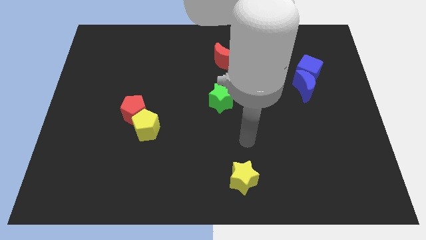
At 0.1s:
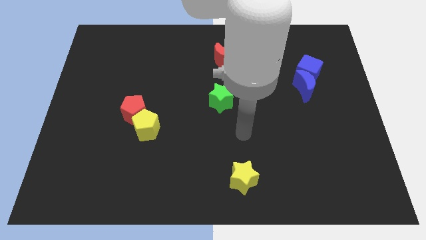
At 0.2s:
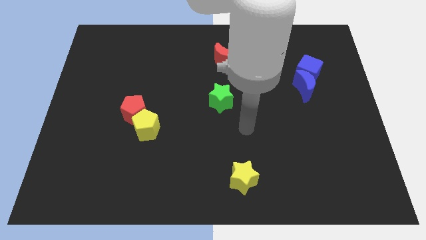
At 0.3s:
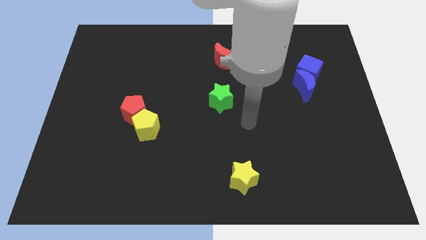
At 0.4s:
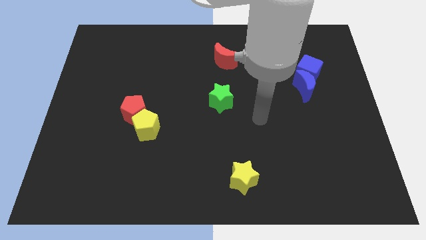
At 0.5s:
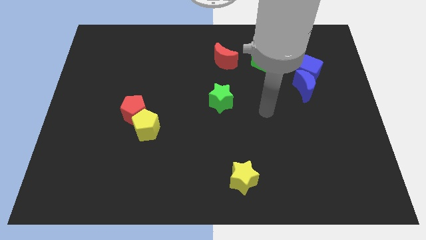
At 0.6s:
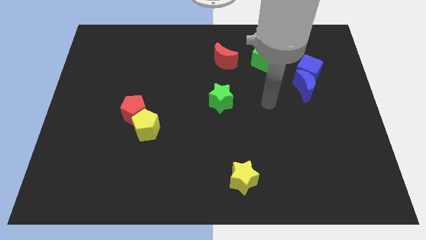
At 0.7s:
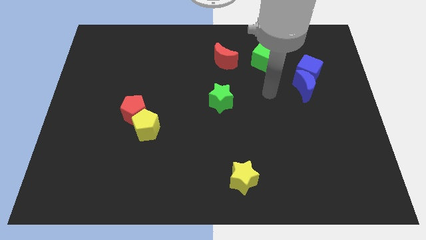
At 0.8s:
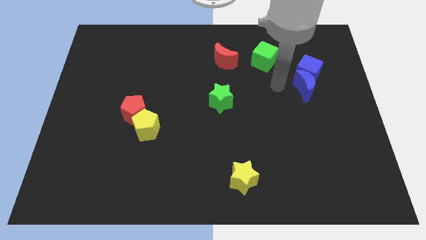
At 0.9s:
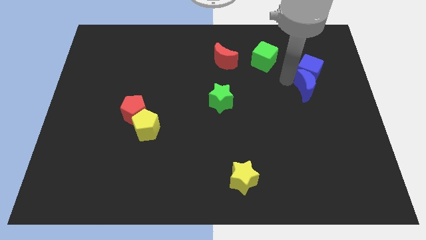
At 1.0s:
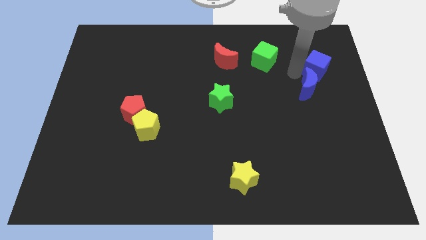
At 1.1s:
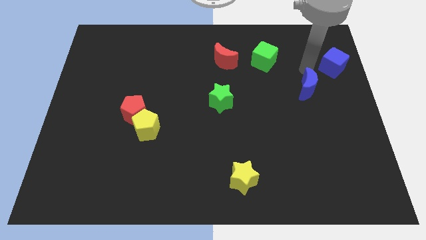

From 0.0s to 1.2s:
move the blue moon away from the blue cube

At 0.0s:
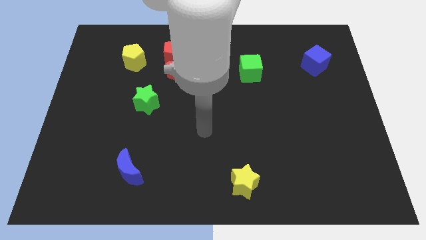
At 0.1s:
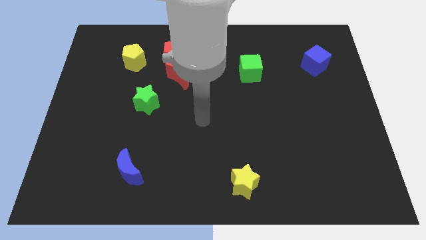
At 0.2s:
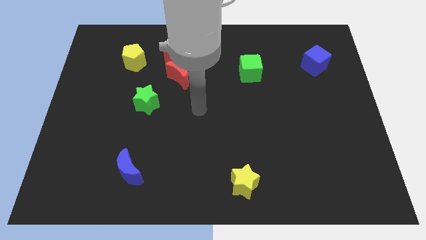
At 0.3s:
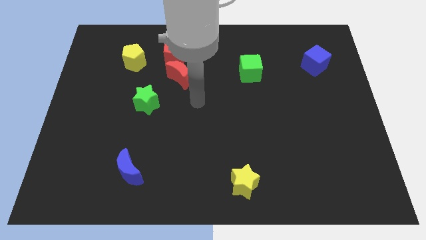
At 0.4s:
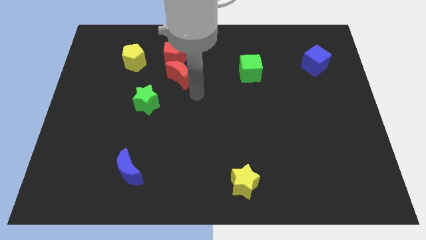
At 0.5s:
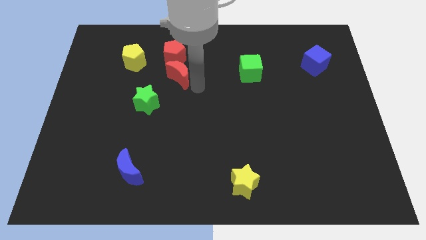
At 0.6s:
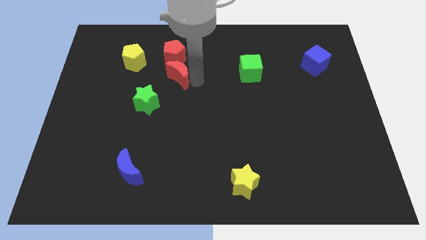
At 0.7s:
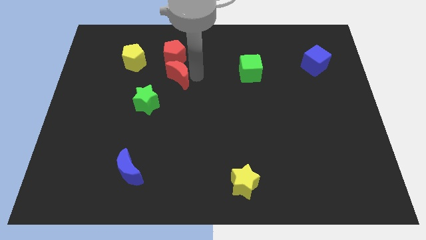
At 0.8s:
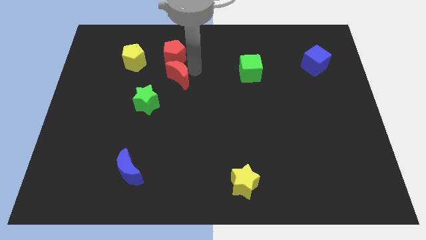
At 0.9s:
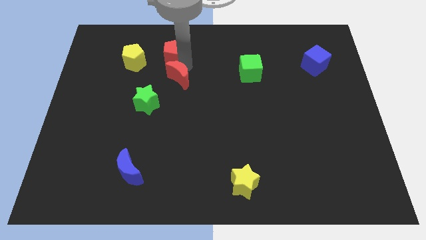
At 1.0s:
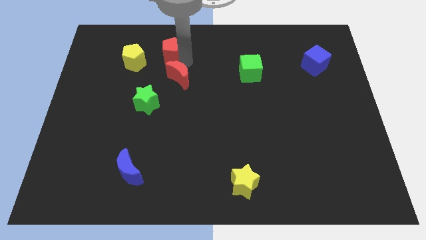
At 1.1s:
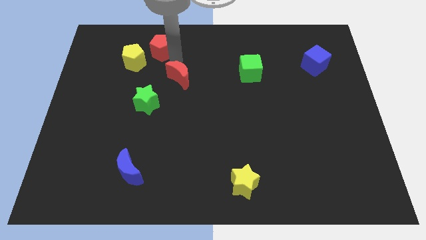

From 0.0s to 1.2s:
separate the red moon from the red pentagon

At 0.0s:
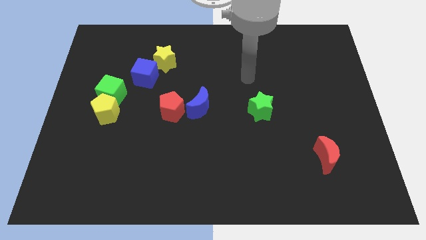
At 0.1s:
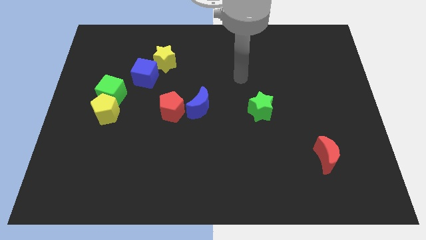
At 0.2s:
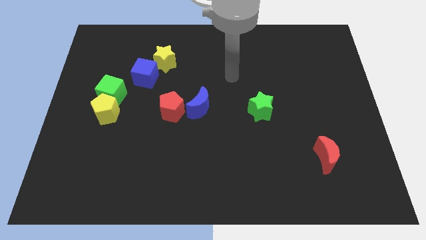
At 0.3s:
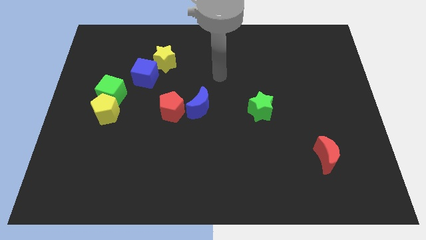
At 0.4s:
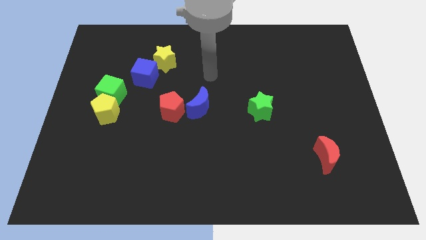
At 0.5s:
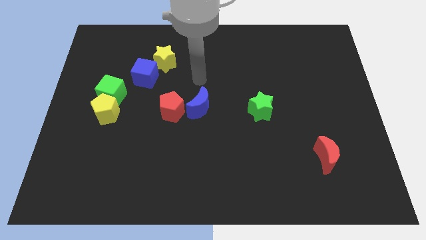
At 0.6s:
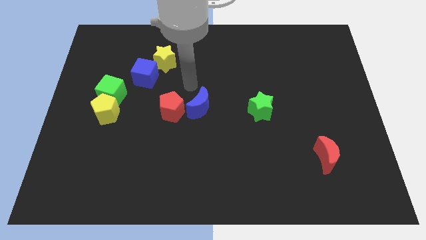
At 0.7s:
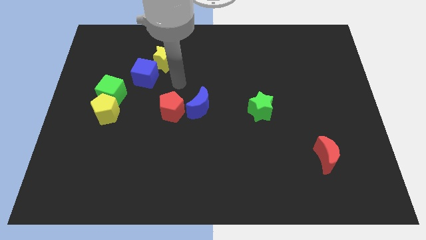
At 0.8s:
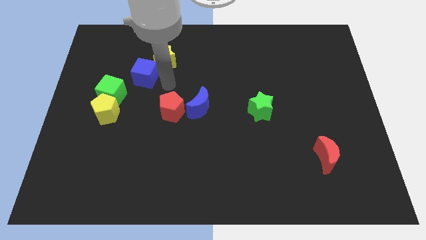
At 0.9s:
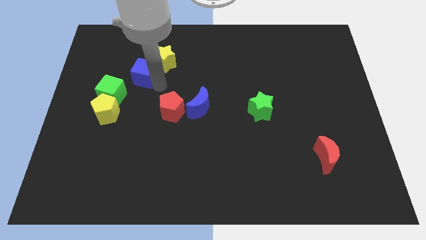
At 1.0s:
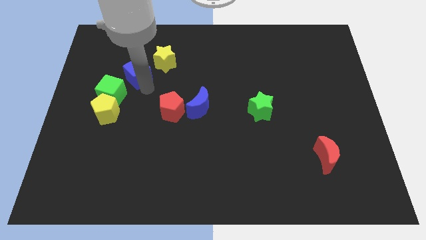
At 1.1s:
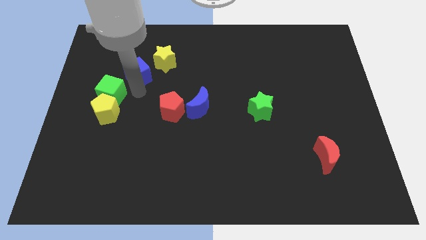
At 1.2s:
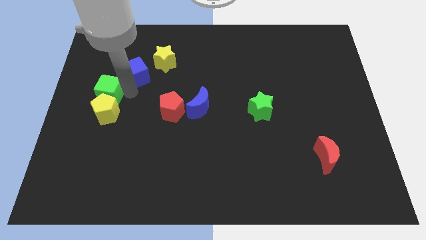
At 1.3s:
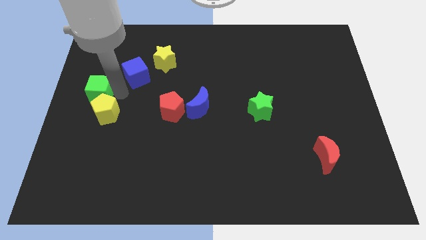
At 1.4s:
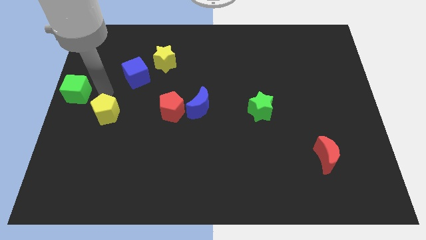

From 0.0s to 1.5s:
separate the yellow pentagon from the green cube

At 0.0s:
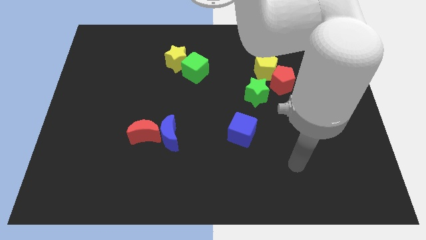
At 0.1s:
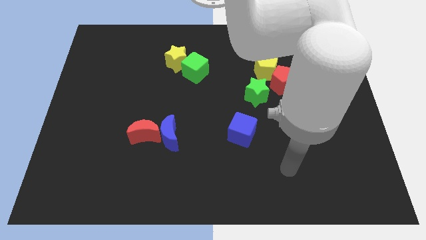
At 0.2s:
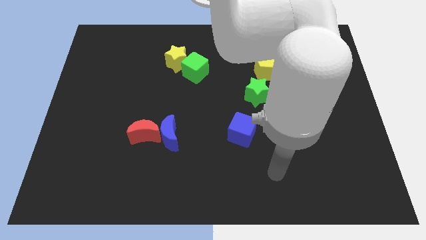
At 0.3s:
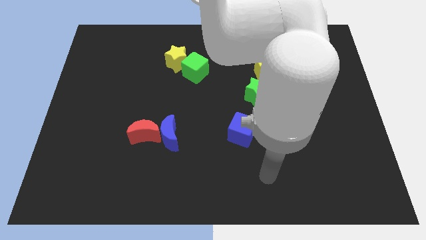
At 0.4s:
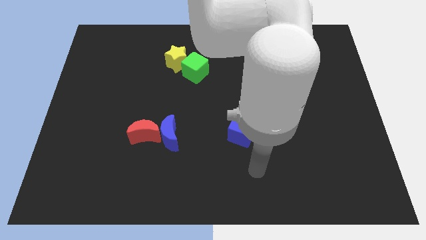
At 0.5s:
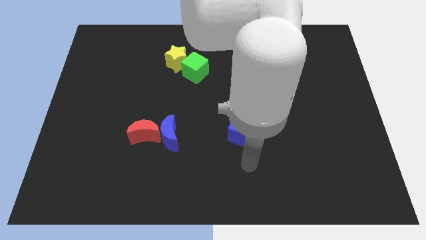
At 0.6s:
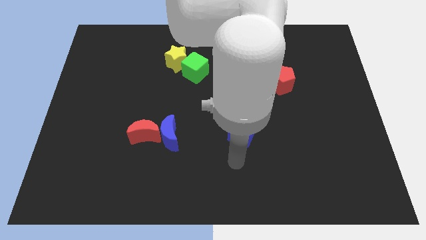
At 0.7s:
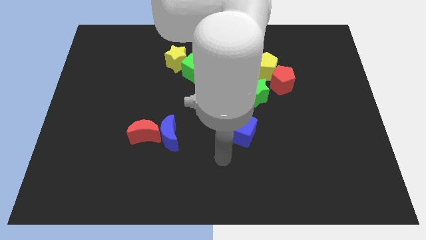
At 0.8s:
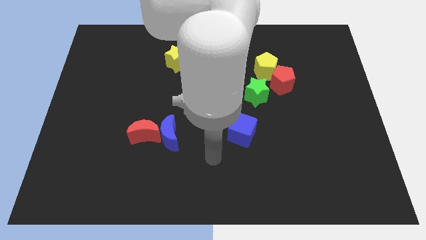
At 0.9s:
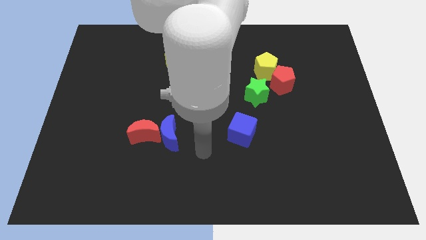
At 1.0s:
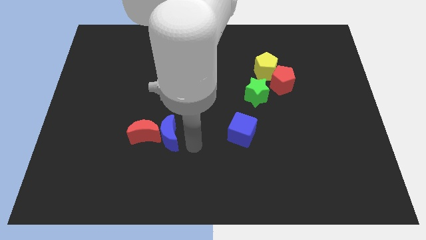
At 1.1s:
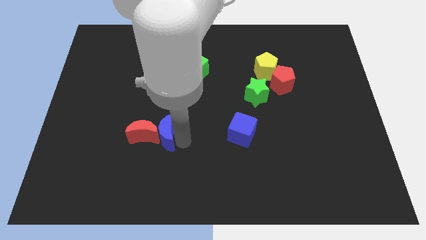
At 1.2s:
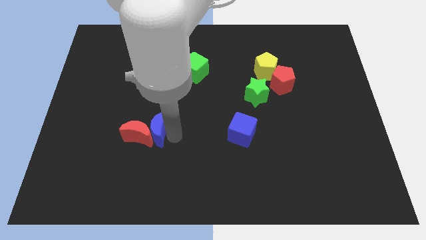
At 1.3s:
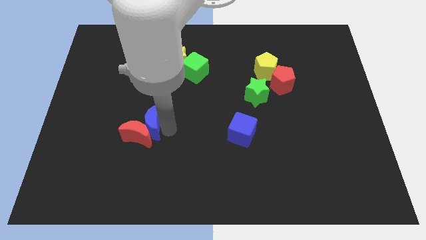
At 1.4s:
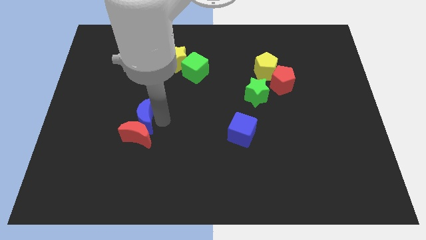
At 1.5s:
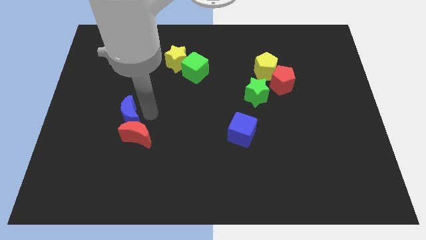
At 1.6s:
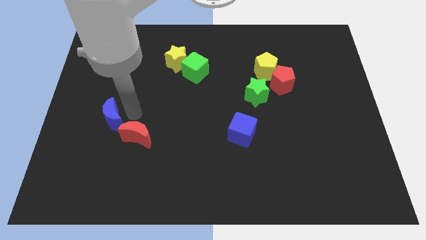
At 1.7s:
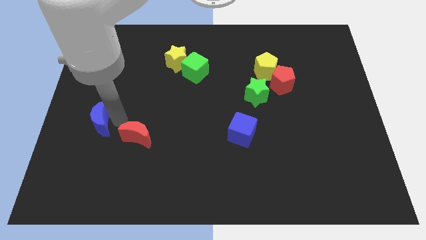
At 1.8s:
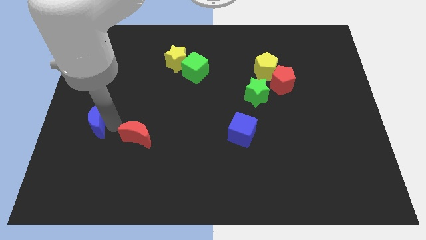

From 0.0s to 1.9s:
separate the red moon from the blue moon

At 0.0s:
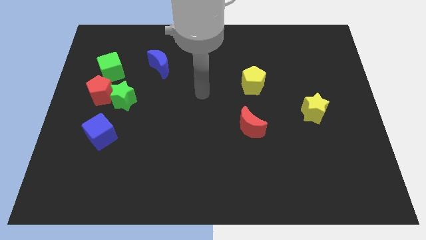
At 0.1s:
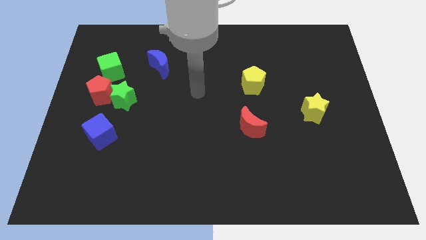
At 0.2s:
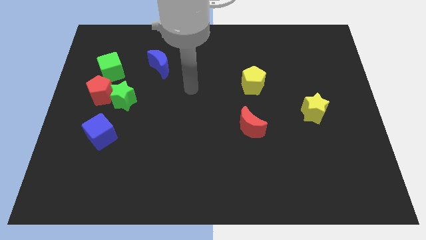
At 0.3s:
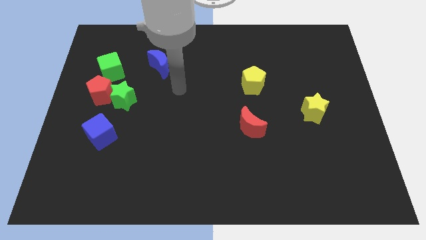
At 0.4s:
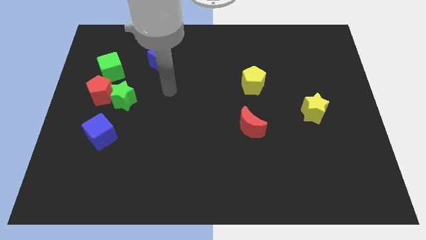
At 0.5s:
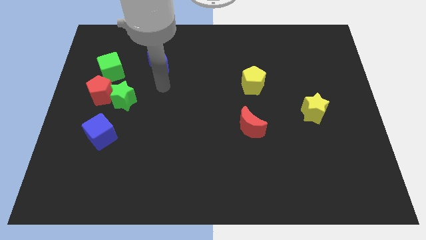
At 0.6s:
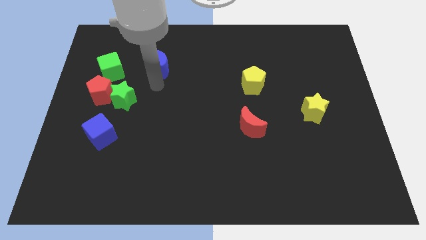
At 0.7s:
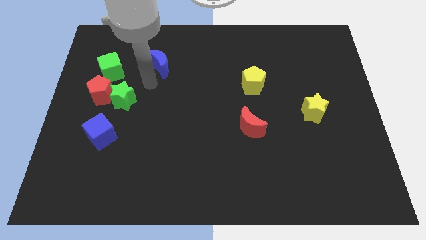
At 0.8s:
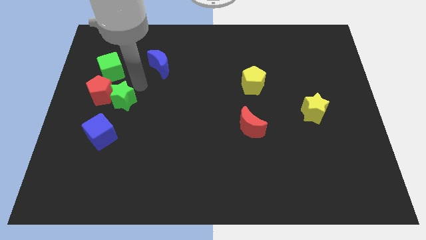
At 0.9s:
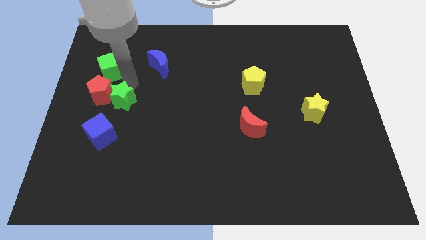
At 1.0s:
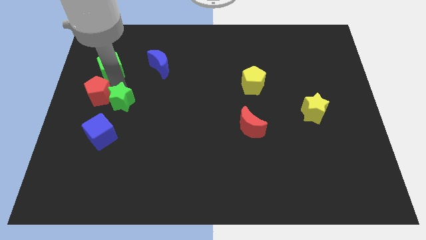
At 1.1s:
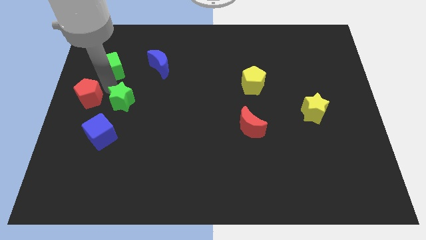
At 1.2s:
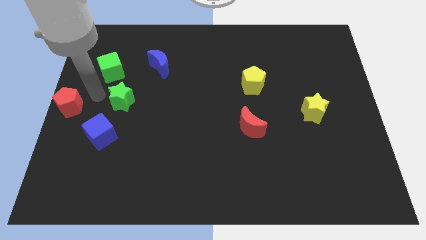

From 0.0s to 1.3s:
move the green star away from the red pentagon

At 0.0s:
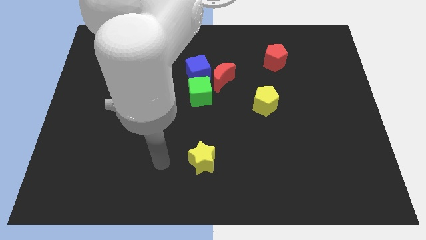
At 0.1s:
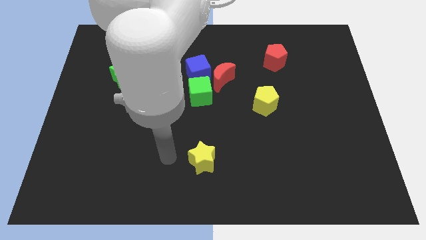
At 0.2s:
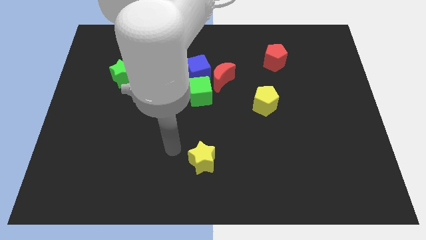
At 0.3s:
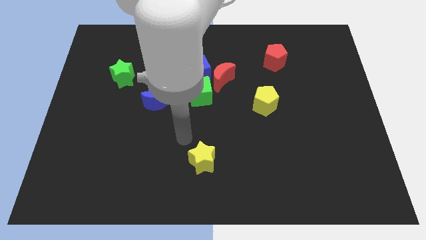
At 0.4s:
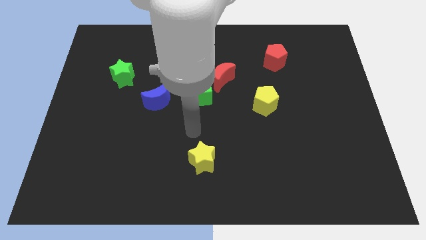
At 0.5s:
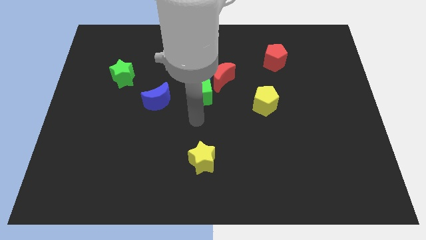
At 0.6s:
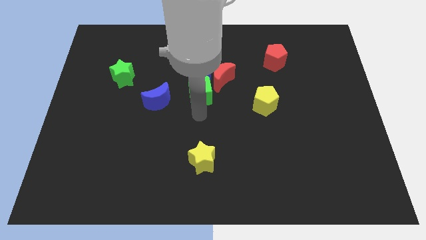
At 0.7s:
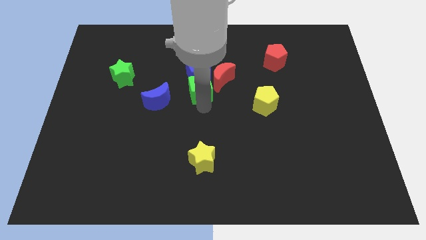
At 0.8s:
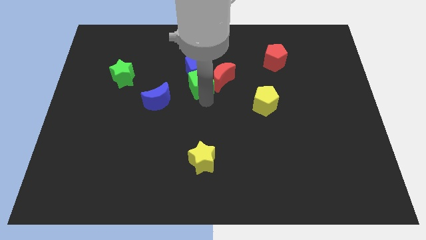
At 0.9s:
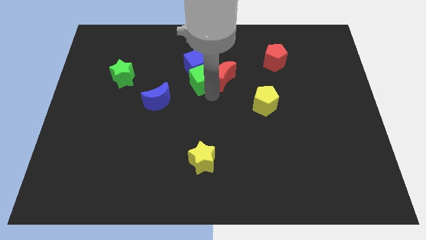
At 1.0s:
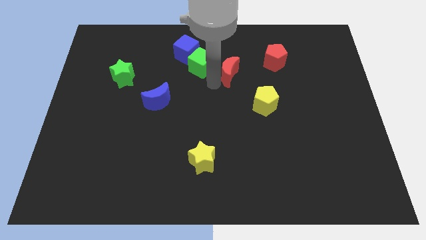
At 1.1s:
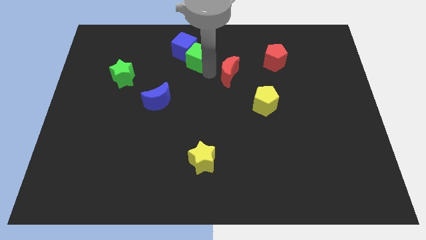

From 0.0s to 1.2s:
pull the blue cube apart from the red moon and green cube

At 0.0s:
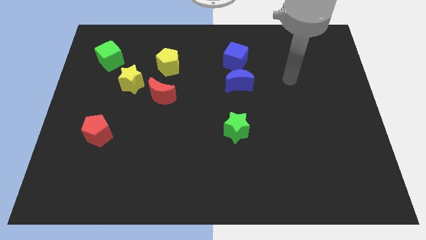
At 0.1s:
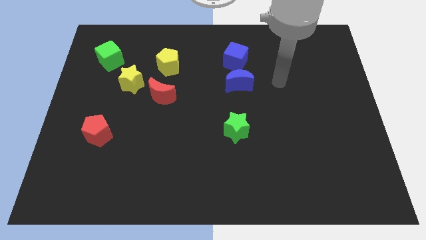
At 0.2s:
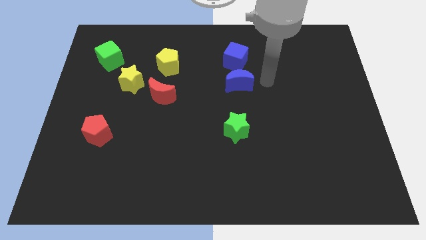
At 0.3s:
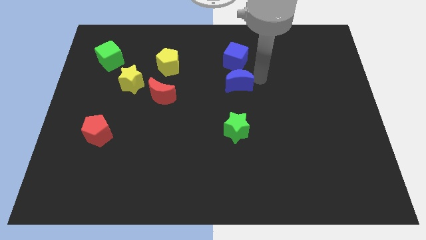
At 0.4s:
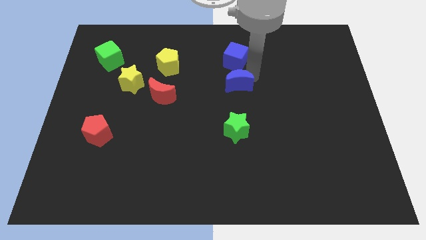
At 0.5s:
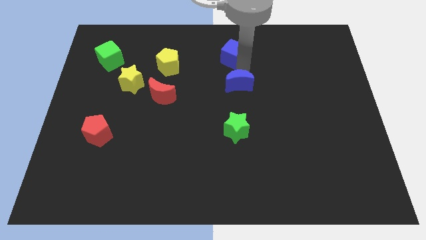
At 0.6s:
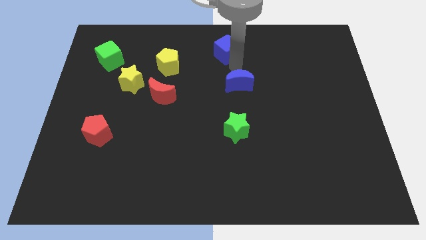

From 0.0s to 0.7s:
separate the blue moon from the blue cube

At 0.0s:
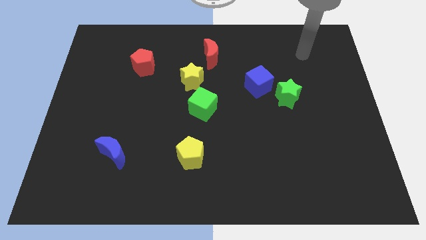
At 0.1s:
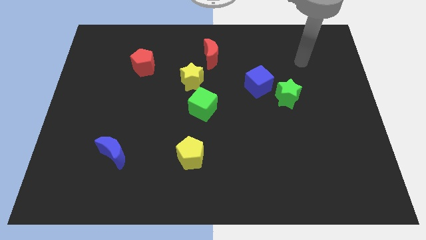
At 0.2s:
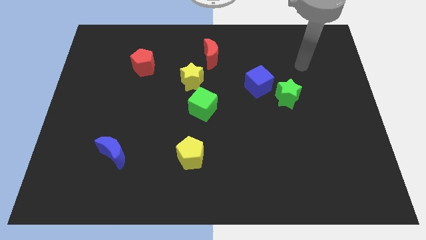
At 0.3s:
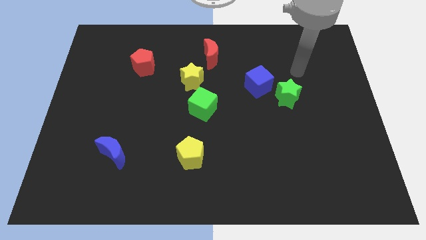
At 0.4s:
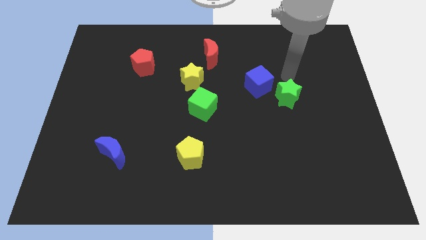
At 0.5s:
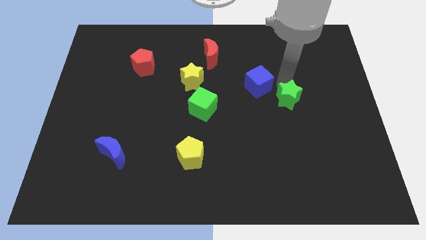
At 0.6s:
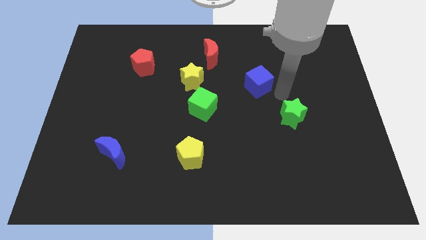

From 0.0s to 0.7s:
separate the blue cube from the green star
